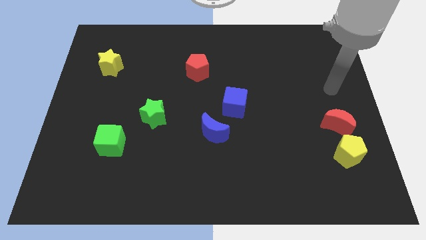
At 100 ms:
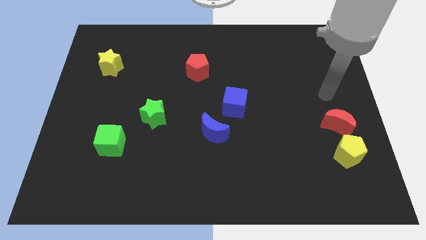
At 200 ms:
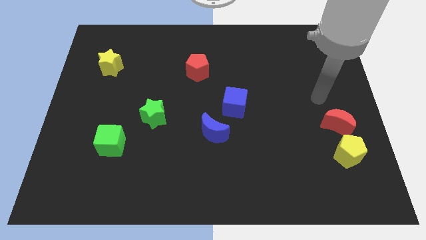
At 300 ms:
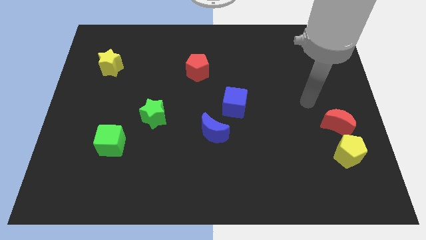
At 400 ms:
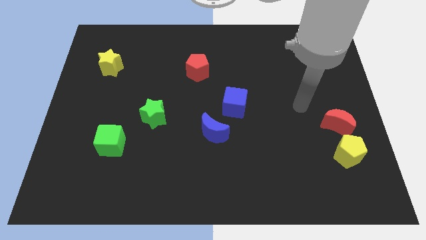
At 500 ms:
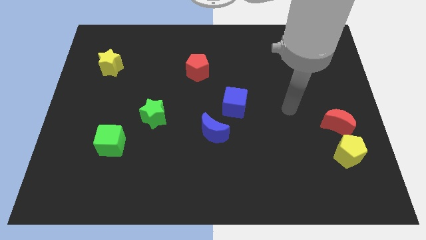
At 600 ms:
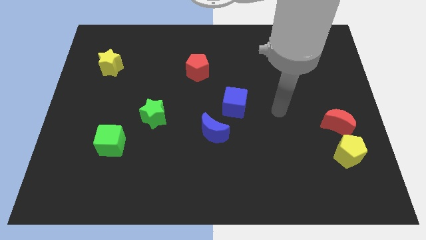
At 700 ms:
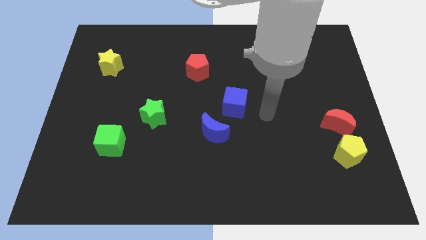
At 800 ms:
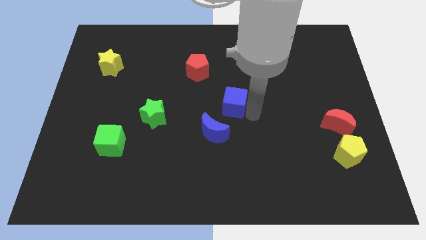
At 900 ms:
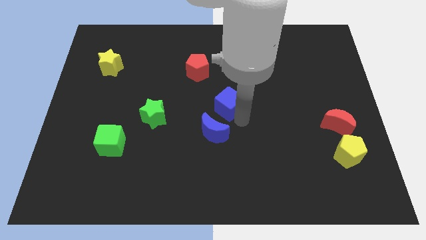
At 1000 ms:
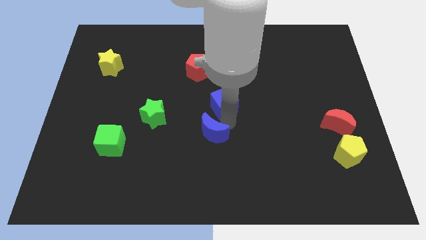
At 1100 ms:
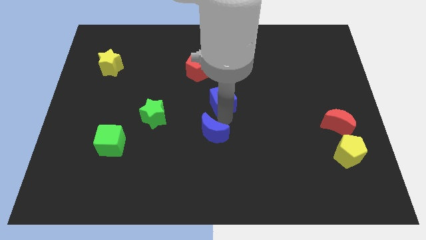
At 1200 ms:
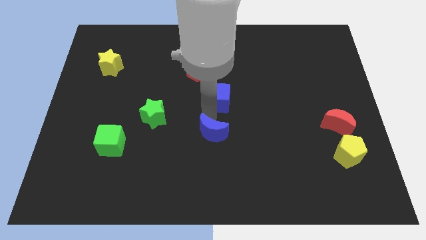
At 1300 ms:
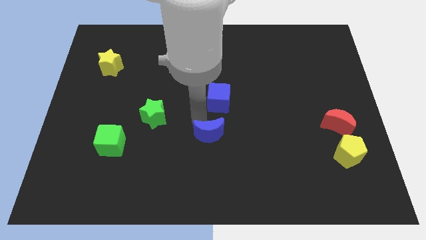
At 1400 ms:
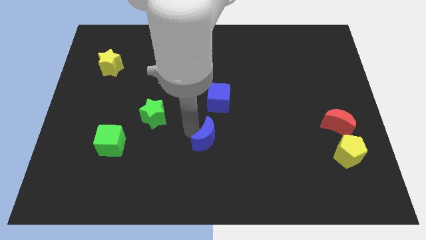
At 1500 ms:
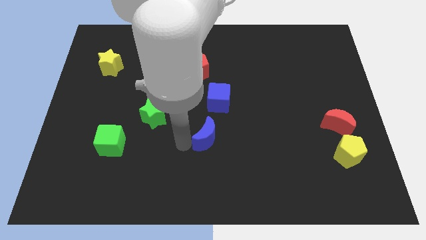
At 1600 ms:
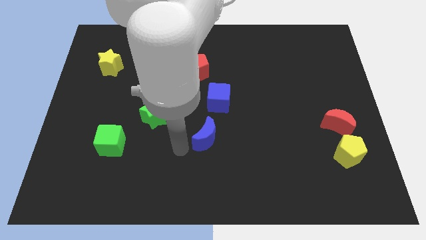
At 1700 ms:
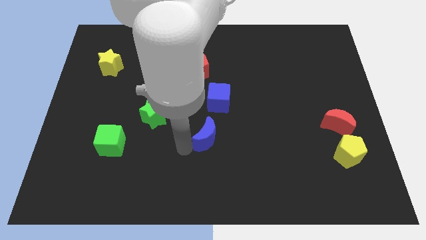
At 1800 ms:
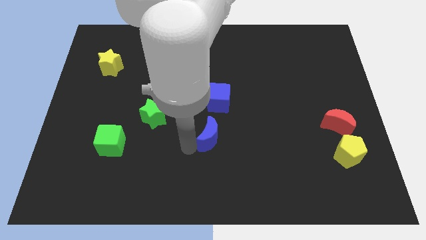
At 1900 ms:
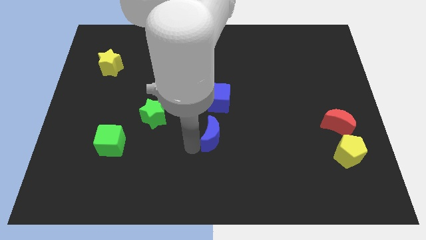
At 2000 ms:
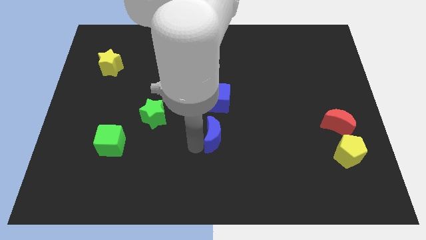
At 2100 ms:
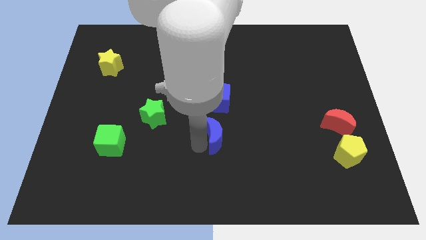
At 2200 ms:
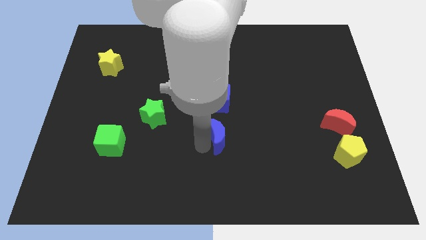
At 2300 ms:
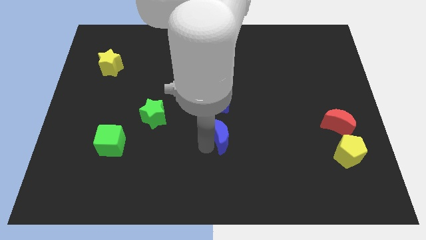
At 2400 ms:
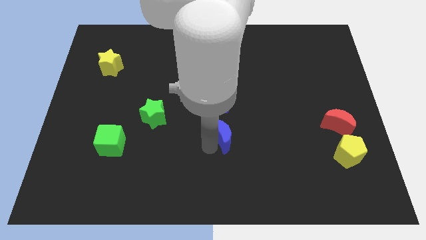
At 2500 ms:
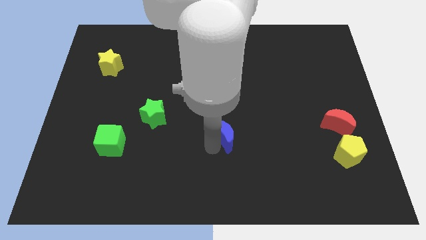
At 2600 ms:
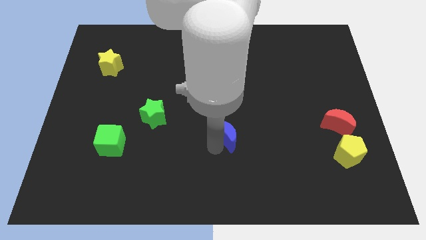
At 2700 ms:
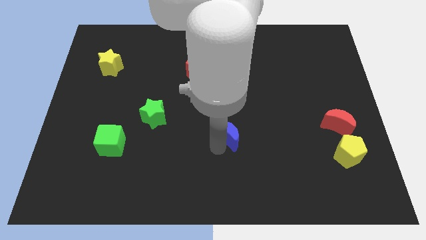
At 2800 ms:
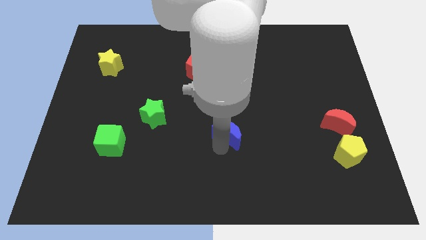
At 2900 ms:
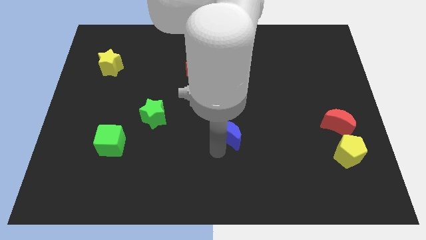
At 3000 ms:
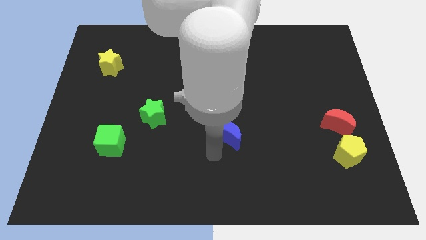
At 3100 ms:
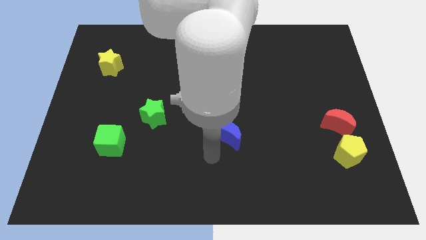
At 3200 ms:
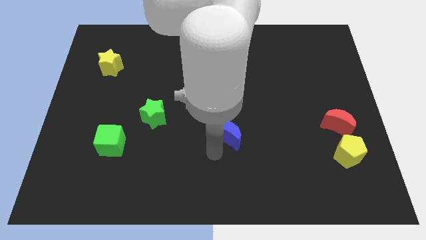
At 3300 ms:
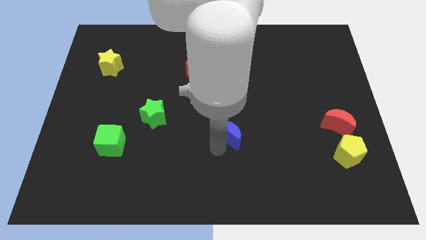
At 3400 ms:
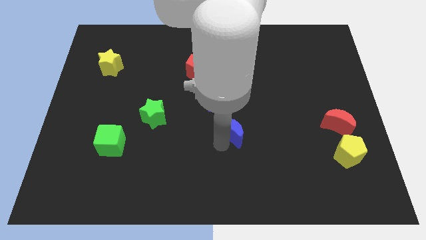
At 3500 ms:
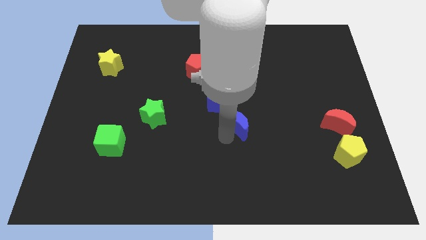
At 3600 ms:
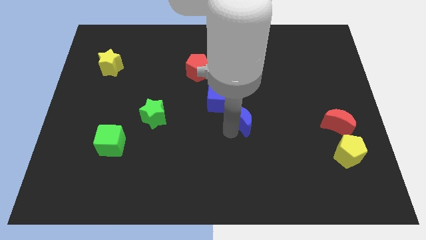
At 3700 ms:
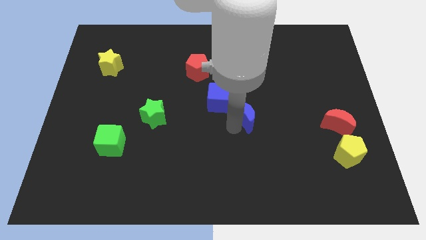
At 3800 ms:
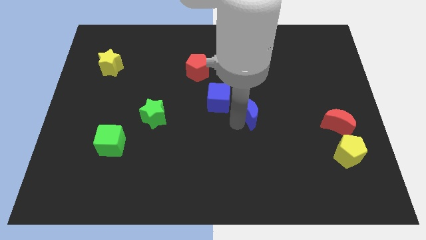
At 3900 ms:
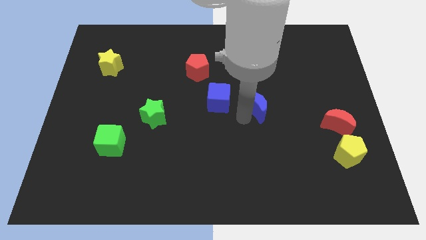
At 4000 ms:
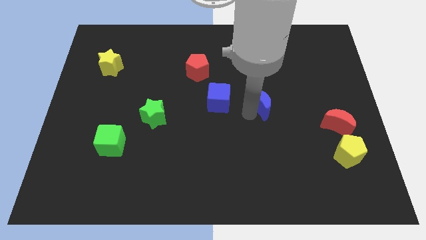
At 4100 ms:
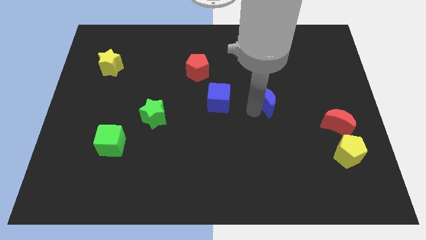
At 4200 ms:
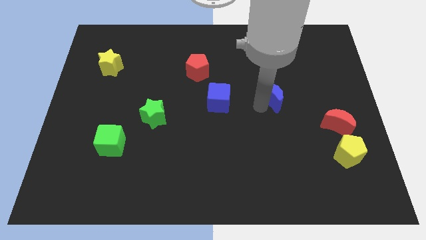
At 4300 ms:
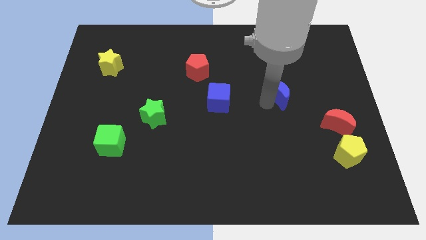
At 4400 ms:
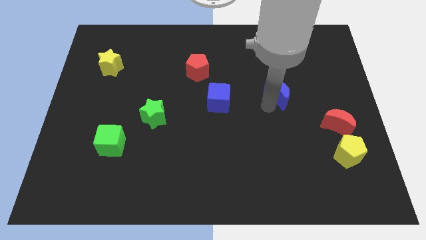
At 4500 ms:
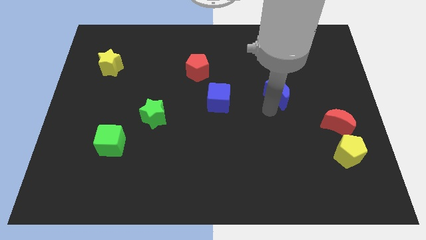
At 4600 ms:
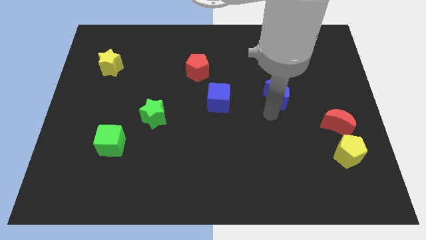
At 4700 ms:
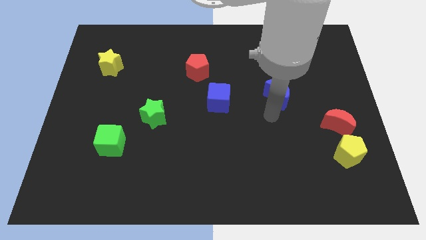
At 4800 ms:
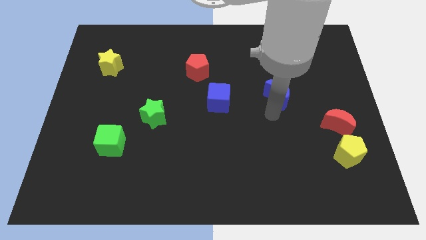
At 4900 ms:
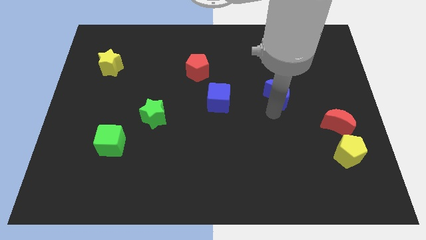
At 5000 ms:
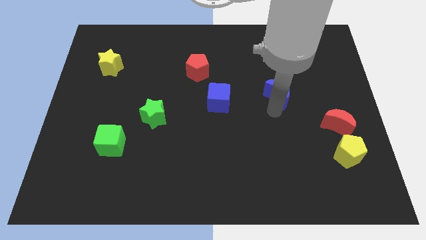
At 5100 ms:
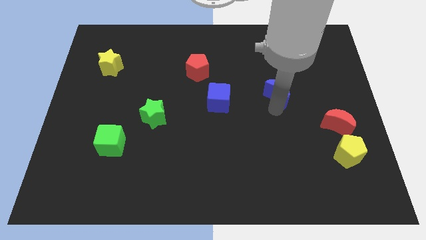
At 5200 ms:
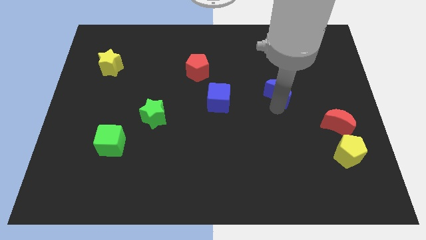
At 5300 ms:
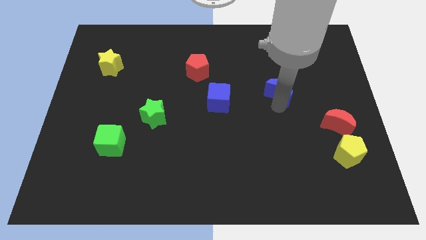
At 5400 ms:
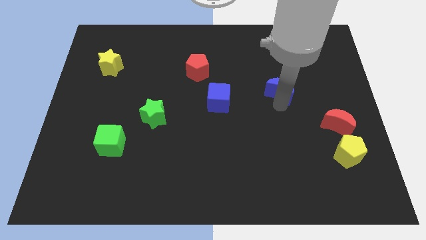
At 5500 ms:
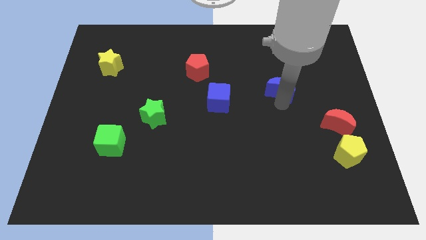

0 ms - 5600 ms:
move the blue moon diagonally up and to the right

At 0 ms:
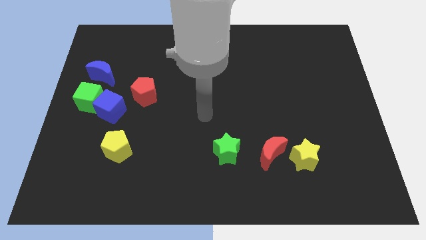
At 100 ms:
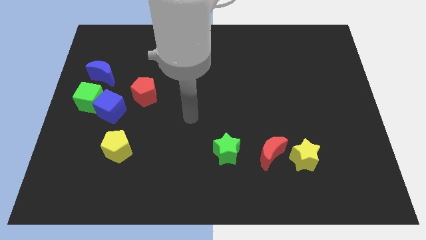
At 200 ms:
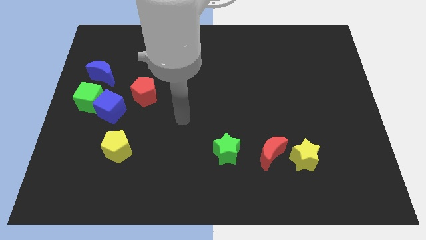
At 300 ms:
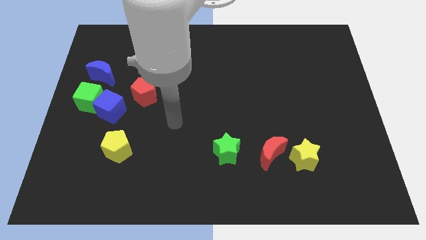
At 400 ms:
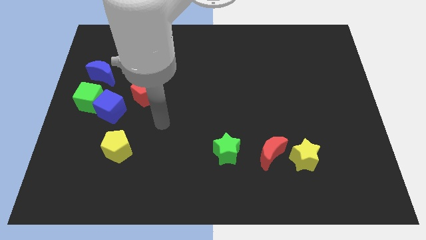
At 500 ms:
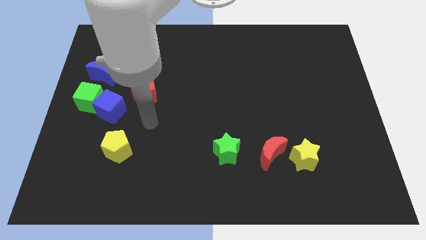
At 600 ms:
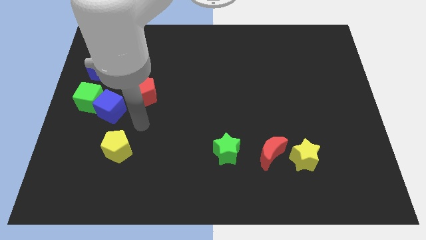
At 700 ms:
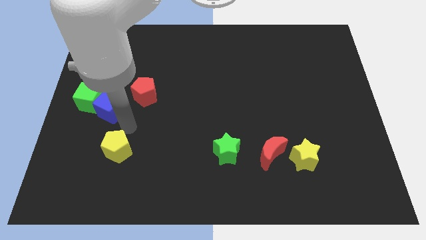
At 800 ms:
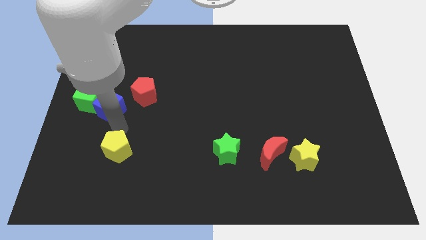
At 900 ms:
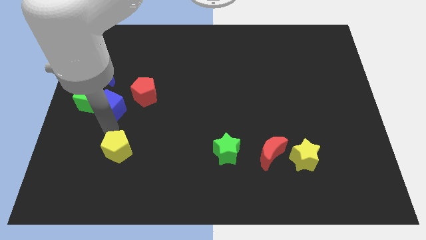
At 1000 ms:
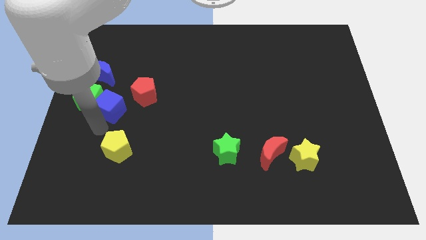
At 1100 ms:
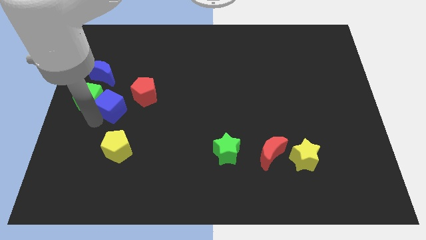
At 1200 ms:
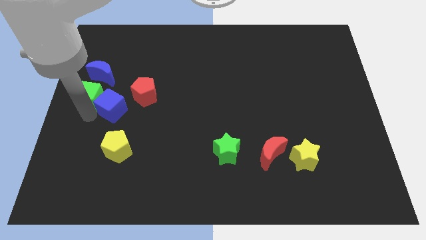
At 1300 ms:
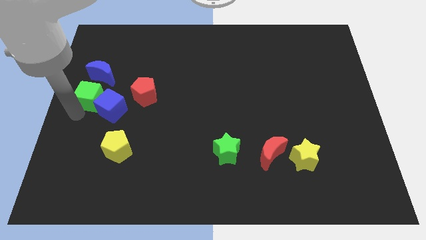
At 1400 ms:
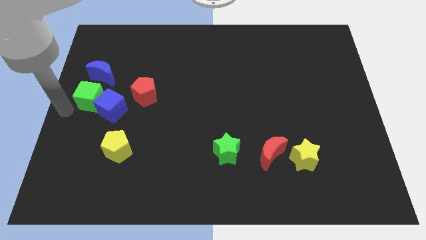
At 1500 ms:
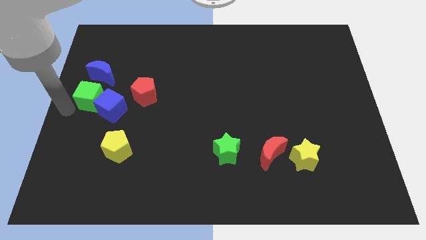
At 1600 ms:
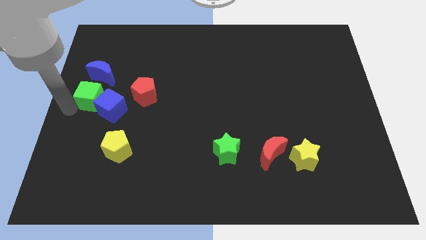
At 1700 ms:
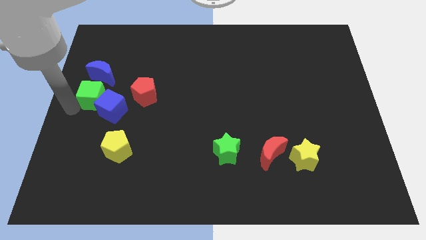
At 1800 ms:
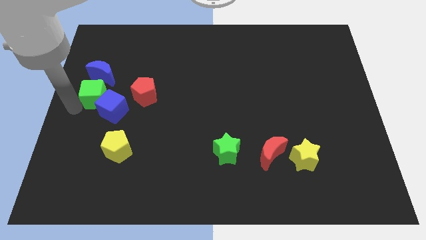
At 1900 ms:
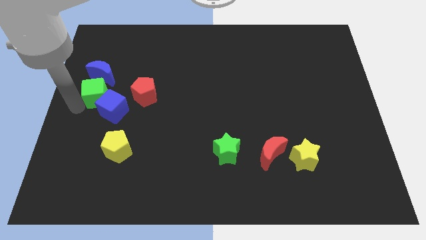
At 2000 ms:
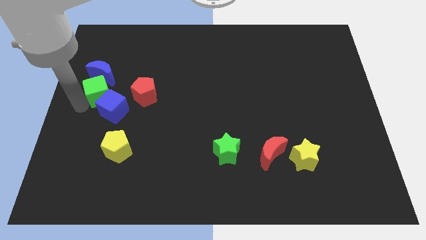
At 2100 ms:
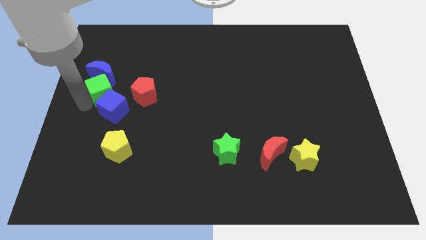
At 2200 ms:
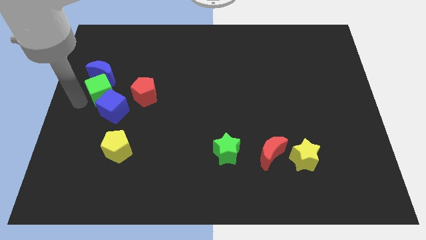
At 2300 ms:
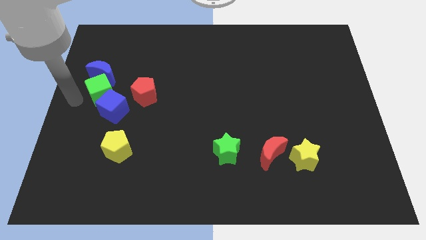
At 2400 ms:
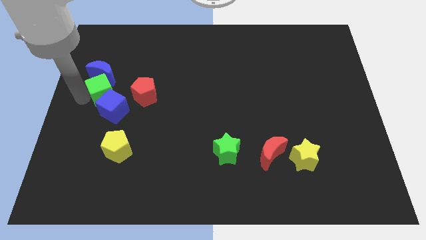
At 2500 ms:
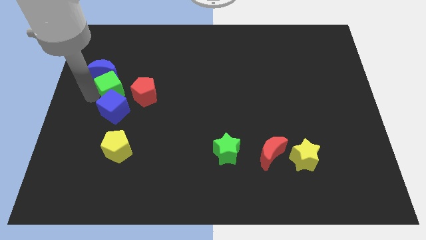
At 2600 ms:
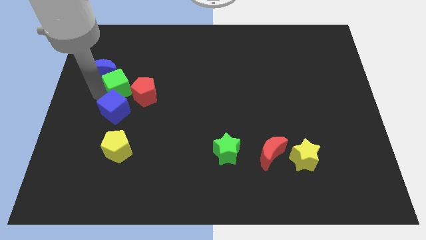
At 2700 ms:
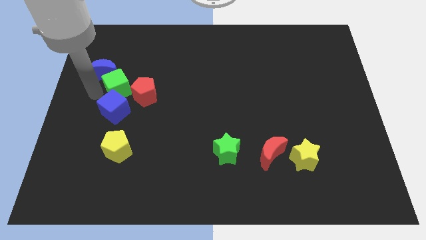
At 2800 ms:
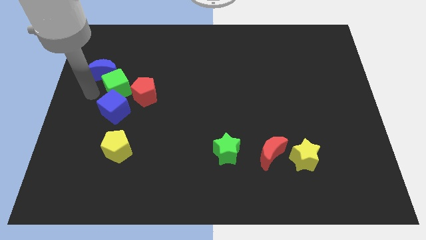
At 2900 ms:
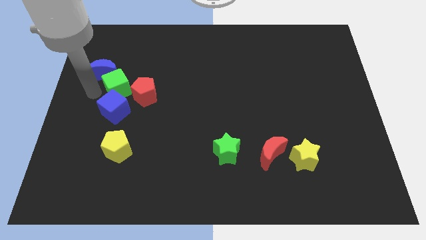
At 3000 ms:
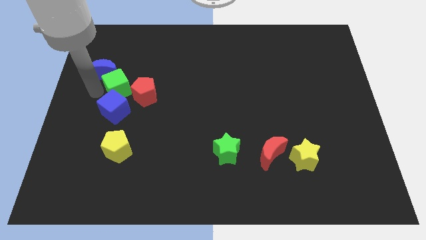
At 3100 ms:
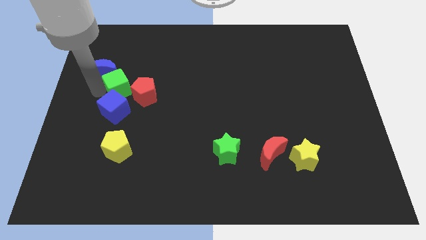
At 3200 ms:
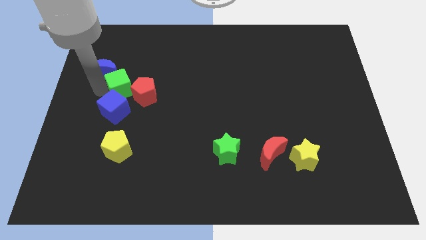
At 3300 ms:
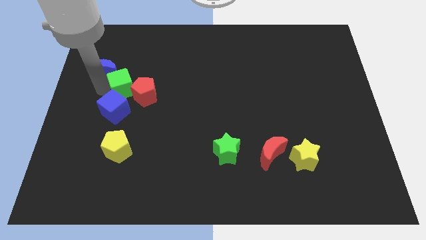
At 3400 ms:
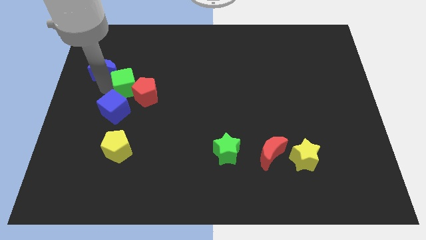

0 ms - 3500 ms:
push the green cube to the right a little
